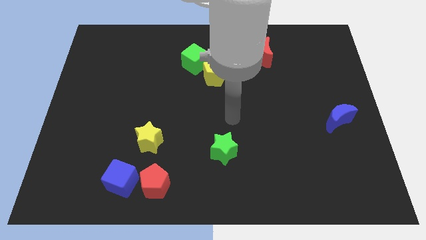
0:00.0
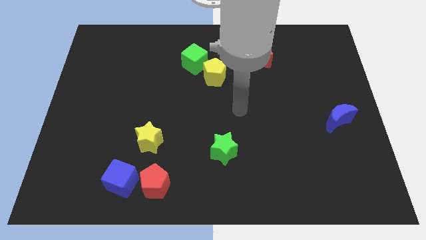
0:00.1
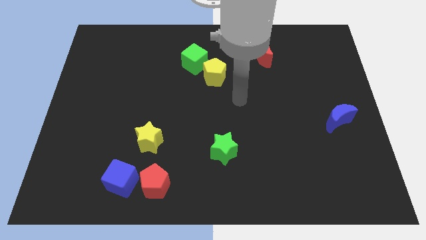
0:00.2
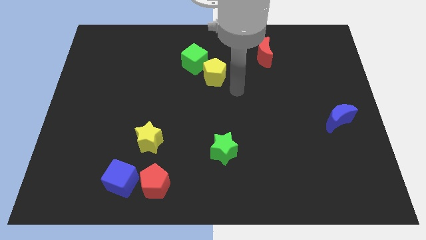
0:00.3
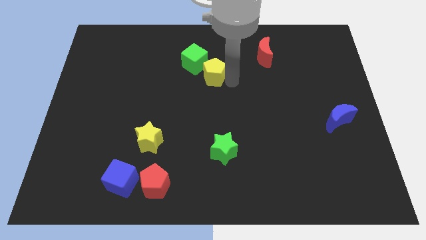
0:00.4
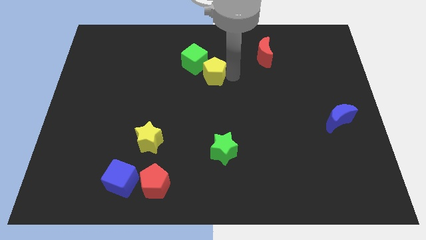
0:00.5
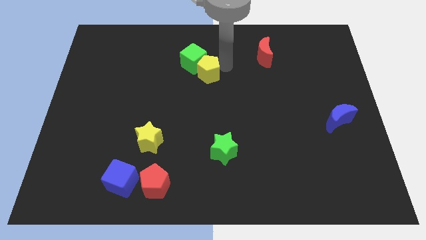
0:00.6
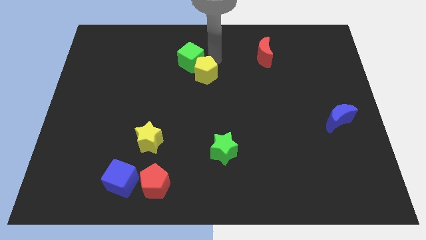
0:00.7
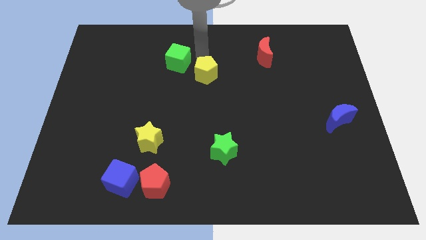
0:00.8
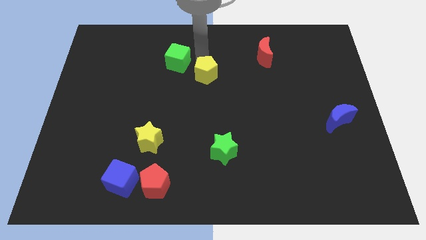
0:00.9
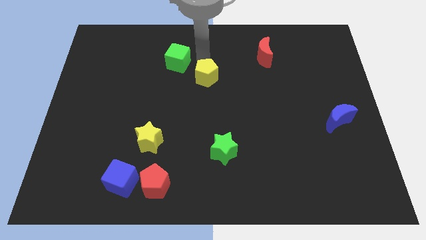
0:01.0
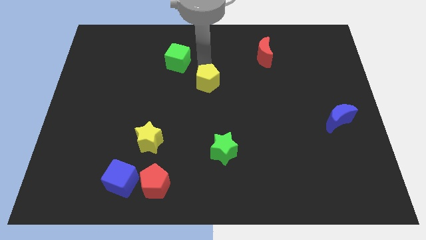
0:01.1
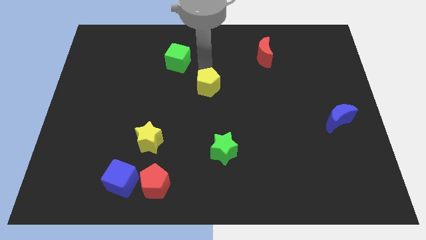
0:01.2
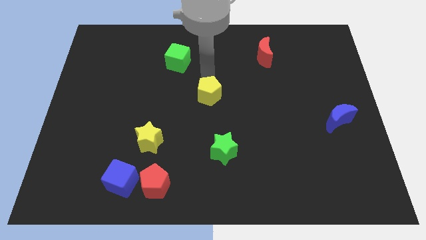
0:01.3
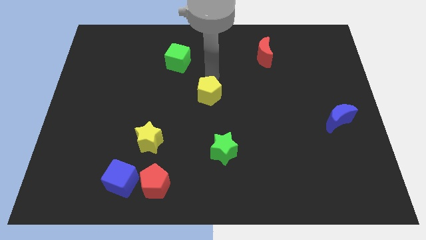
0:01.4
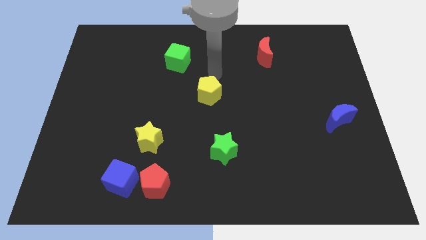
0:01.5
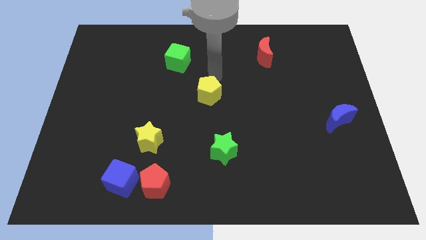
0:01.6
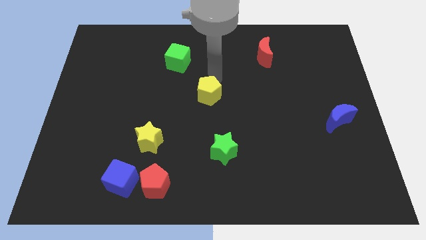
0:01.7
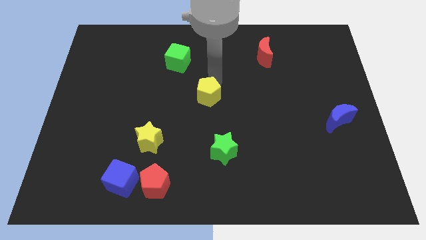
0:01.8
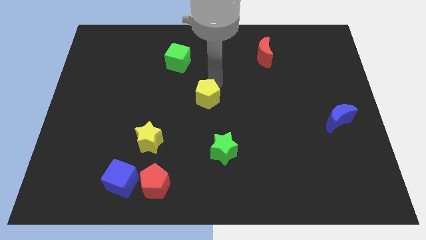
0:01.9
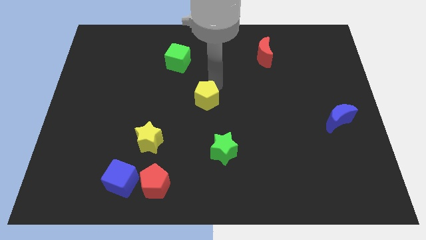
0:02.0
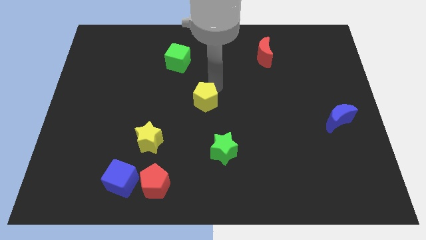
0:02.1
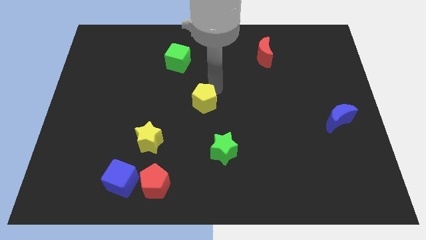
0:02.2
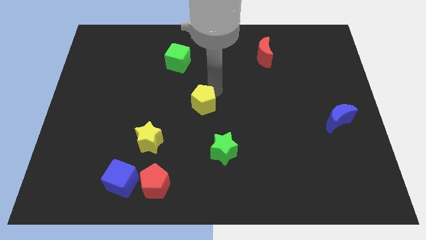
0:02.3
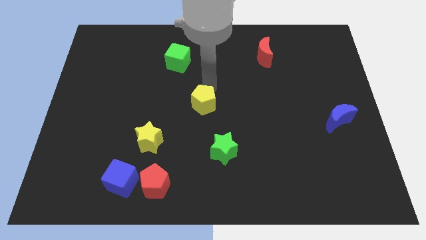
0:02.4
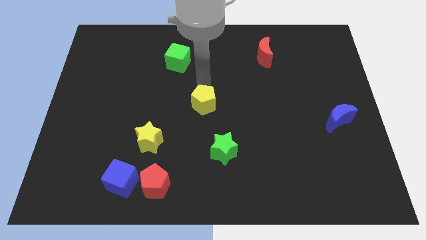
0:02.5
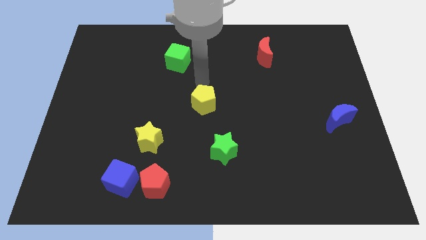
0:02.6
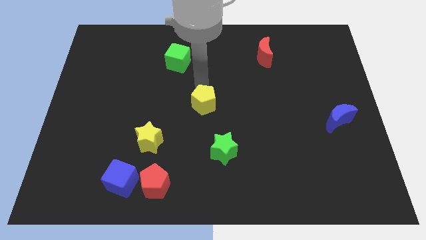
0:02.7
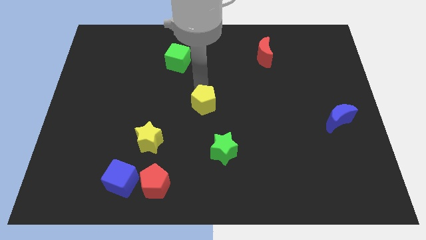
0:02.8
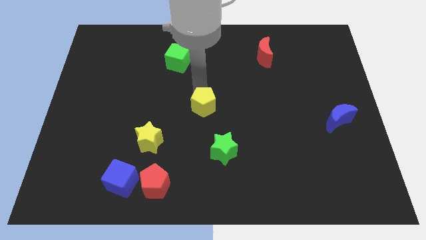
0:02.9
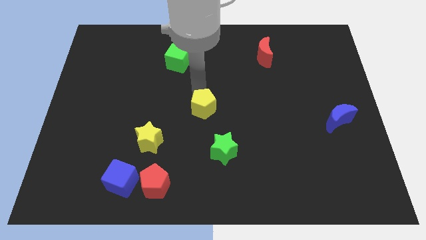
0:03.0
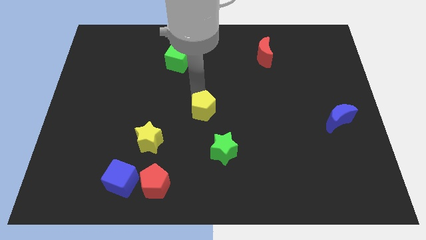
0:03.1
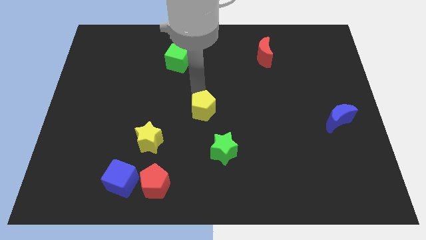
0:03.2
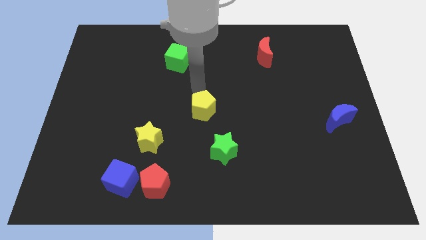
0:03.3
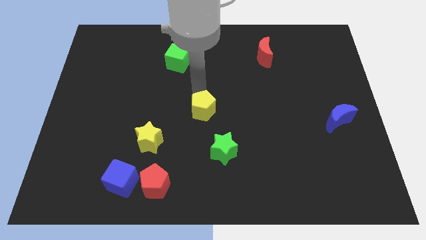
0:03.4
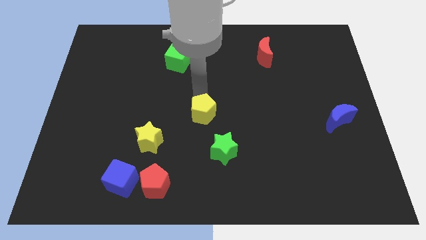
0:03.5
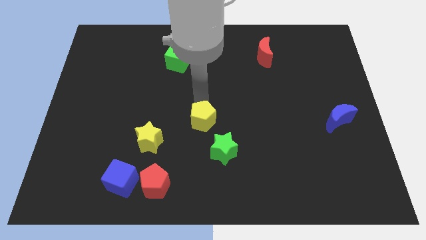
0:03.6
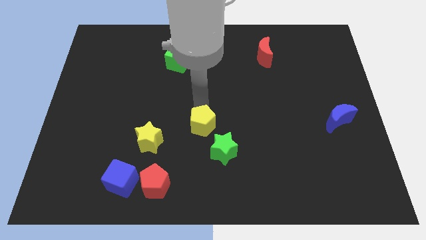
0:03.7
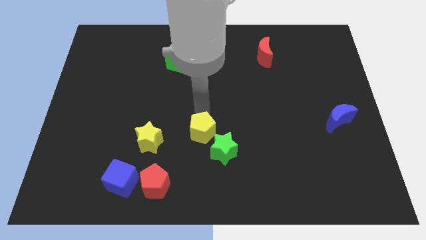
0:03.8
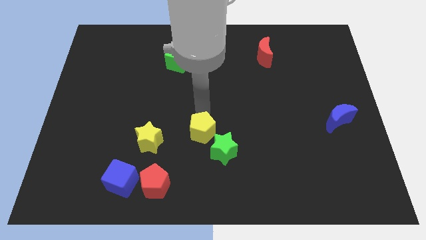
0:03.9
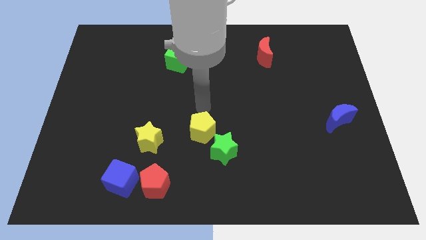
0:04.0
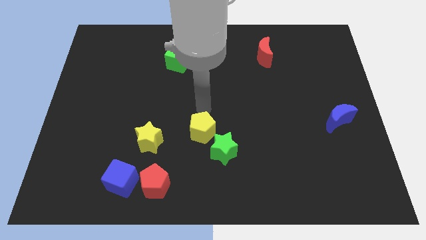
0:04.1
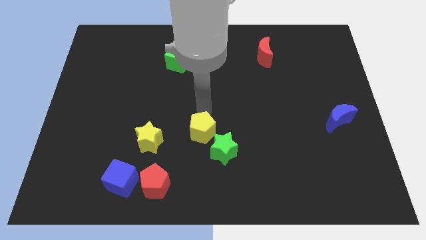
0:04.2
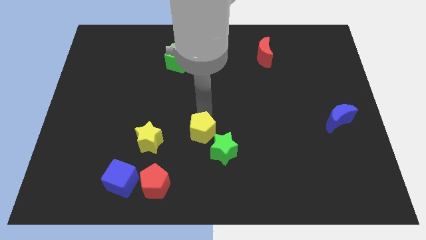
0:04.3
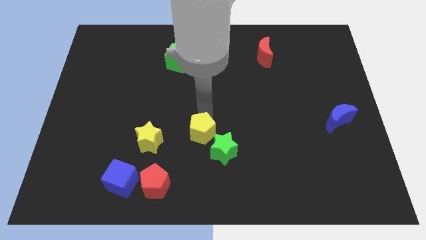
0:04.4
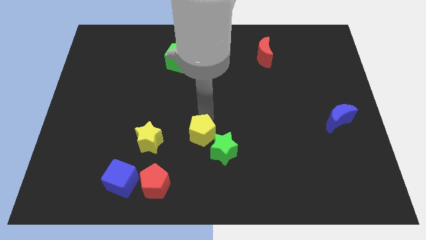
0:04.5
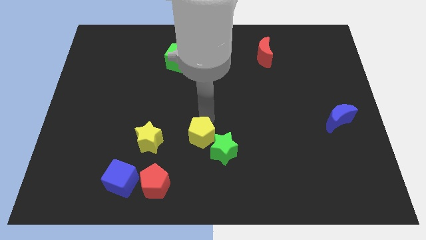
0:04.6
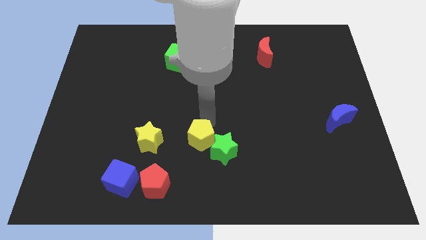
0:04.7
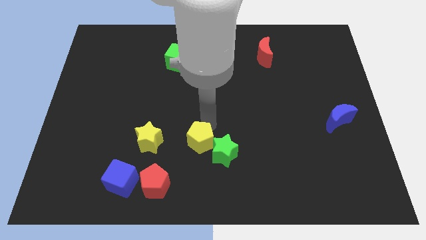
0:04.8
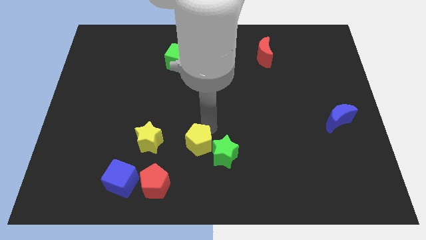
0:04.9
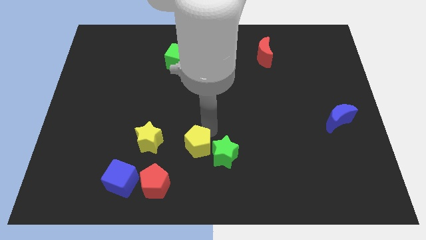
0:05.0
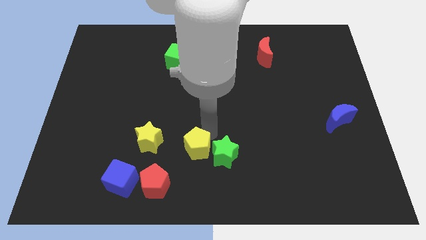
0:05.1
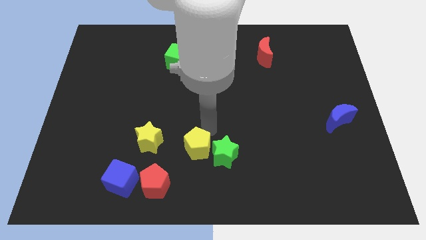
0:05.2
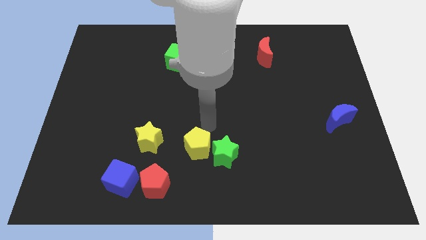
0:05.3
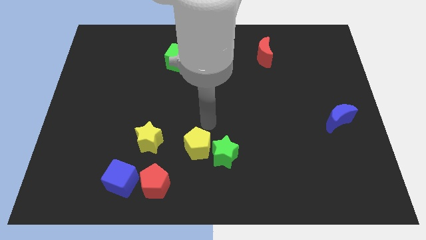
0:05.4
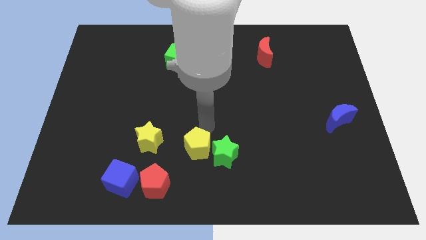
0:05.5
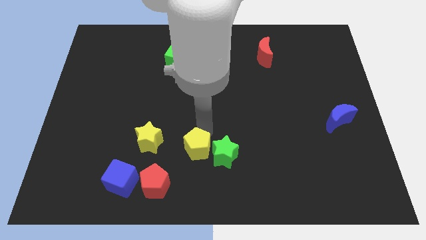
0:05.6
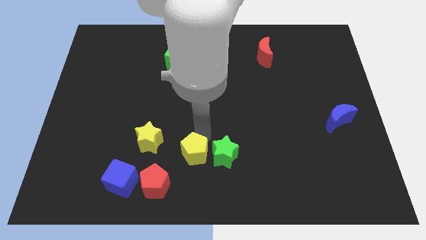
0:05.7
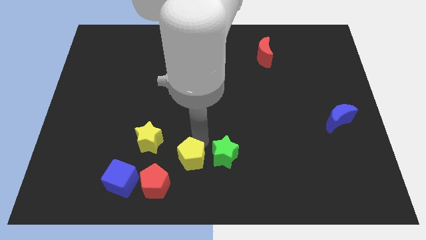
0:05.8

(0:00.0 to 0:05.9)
slide the yellow pentagon to the bottom
